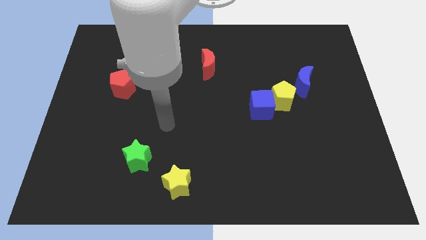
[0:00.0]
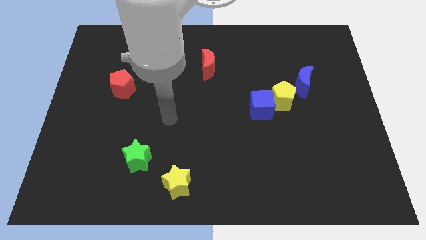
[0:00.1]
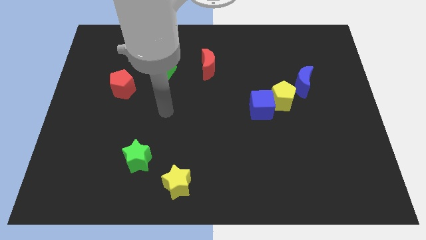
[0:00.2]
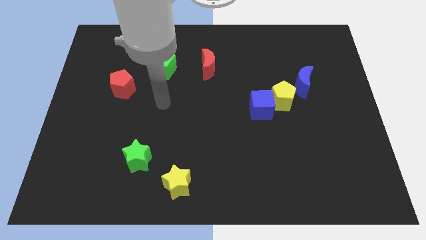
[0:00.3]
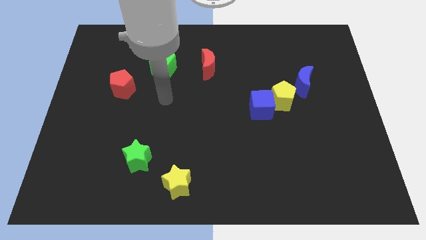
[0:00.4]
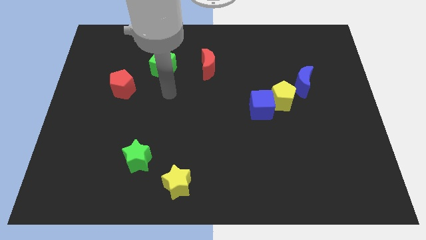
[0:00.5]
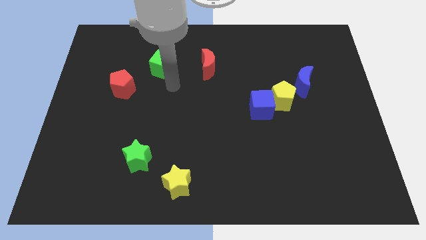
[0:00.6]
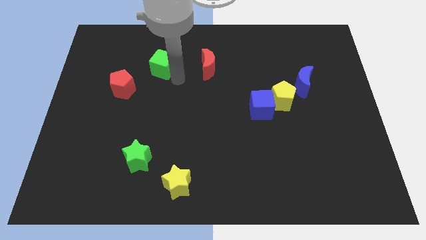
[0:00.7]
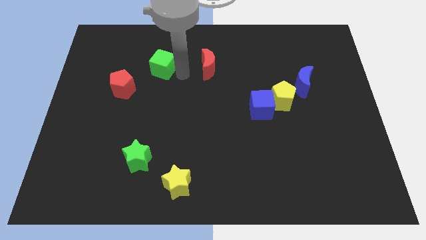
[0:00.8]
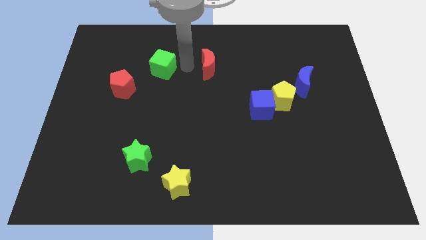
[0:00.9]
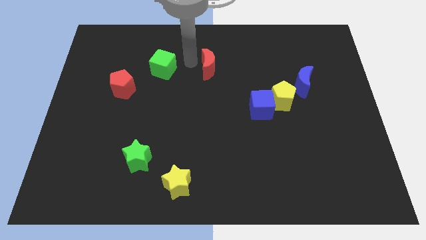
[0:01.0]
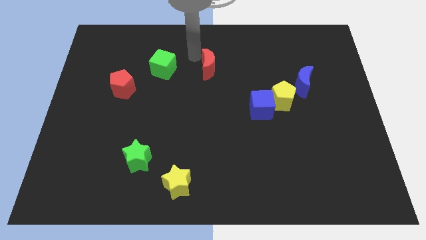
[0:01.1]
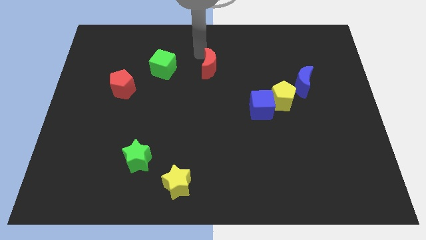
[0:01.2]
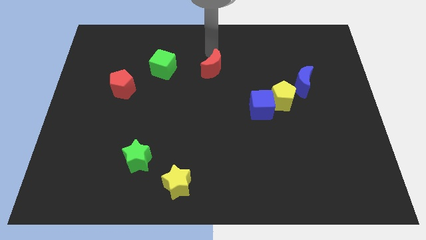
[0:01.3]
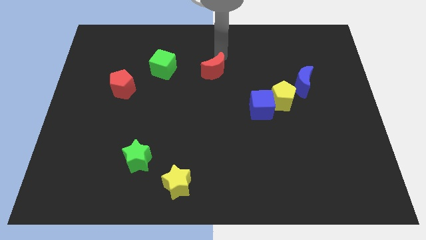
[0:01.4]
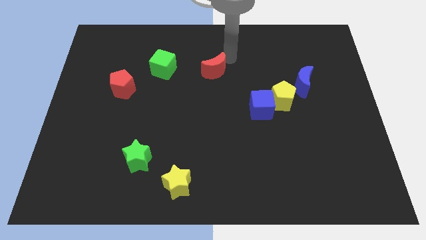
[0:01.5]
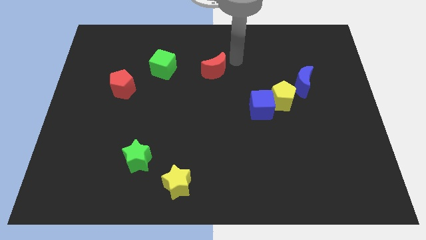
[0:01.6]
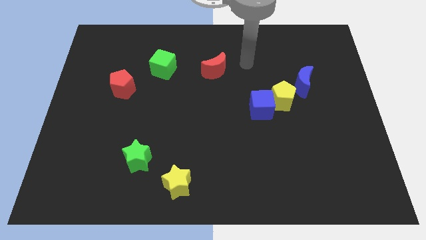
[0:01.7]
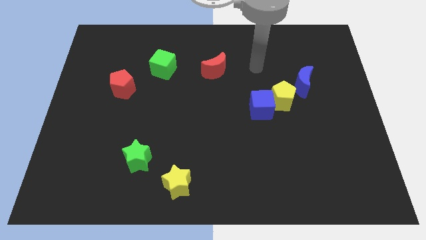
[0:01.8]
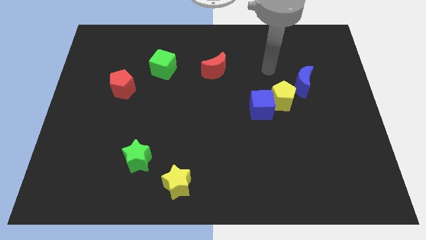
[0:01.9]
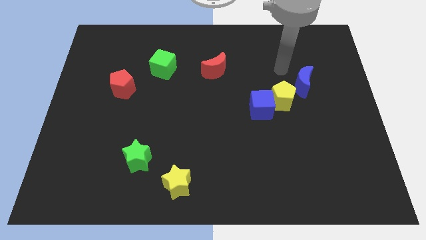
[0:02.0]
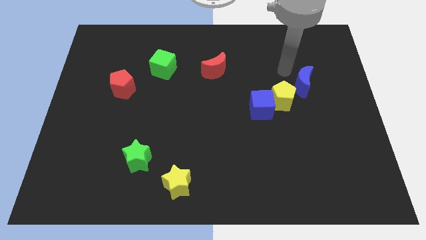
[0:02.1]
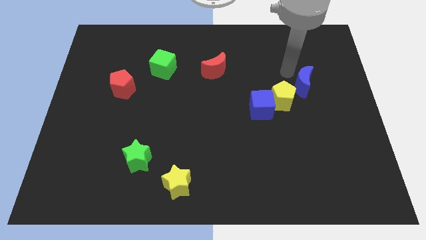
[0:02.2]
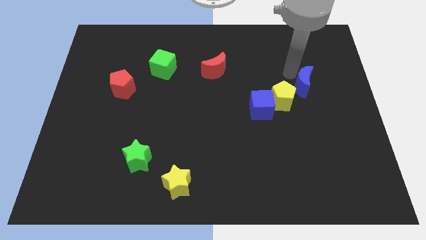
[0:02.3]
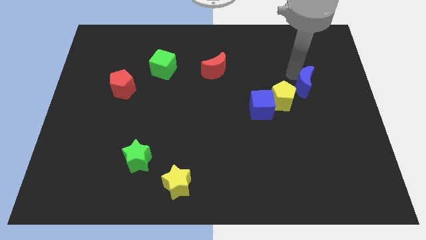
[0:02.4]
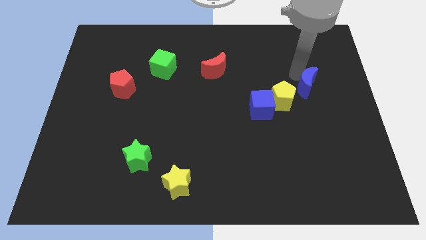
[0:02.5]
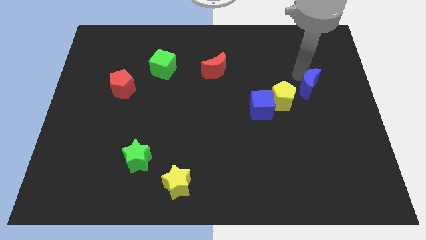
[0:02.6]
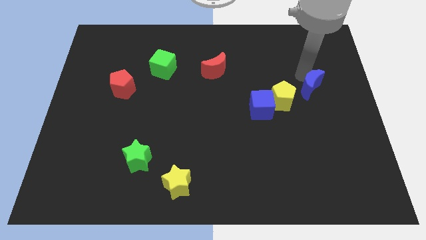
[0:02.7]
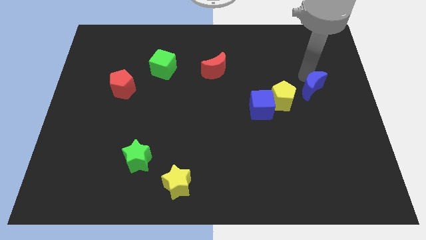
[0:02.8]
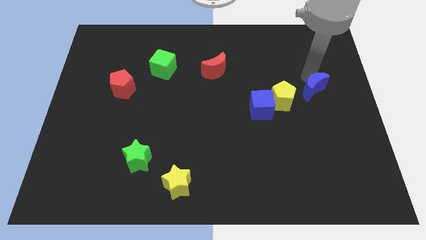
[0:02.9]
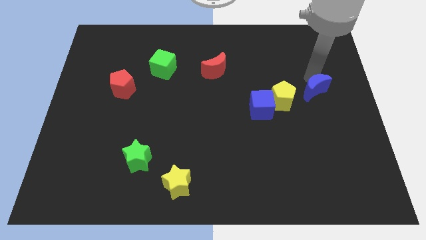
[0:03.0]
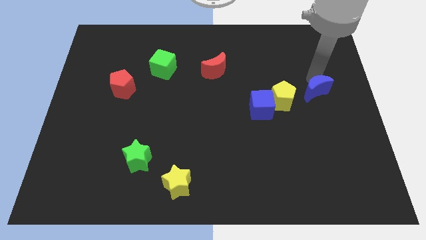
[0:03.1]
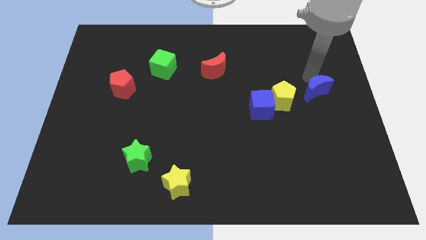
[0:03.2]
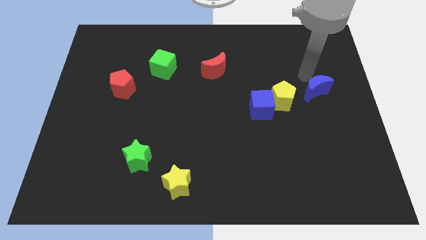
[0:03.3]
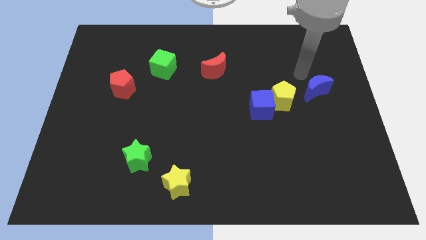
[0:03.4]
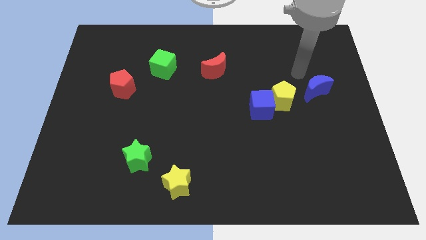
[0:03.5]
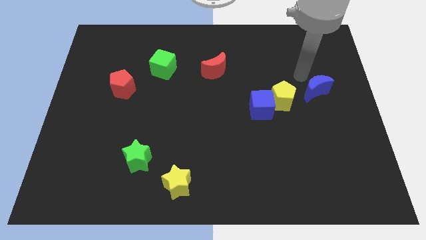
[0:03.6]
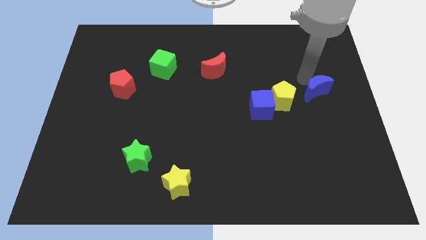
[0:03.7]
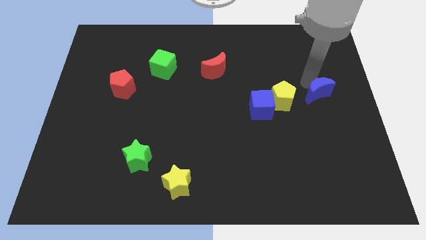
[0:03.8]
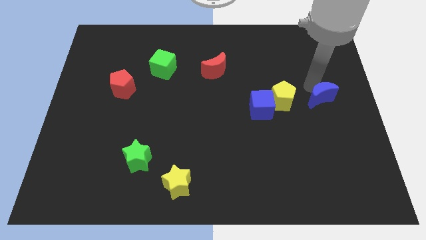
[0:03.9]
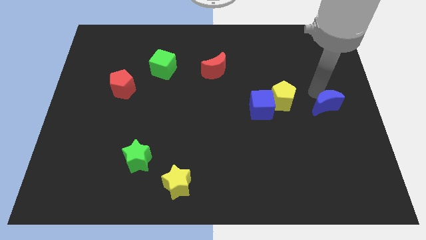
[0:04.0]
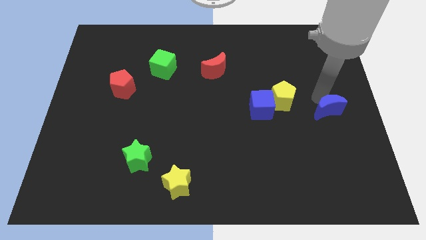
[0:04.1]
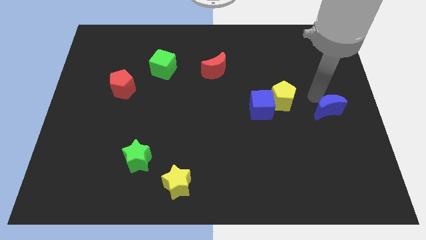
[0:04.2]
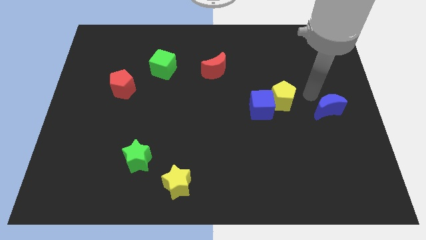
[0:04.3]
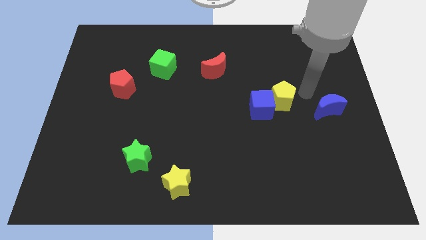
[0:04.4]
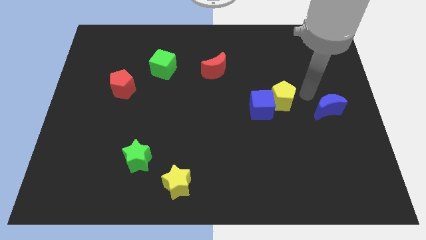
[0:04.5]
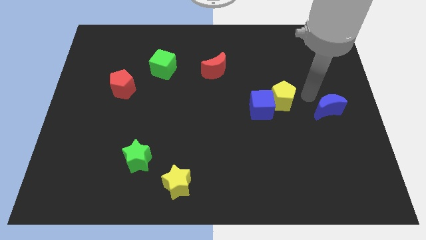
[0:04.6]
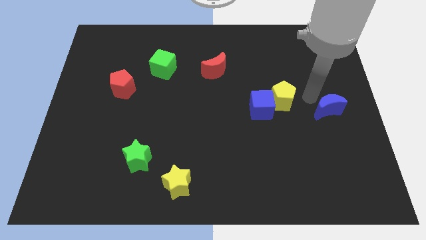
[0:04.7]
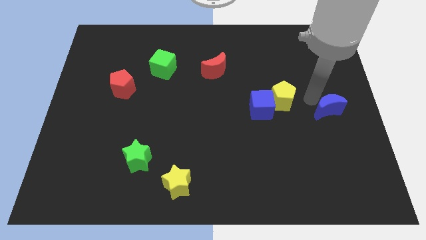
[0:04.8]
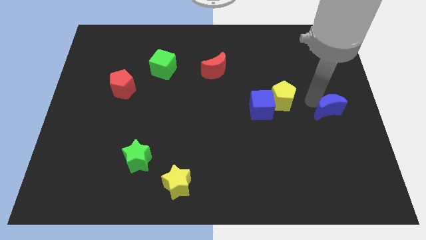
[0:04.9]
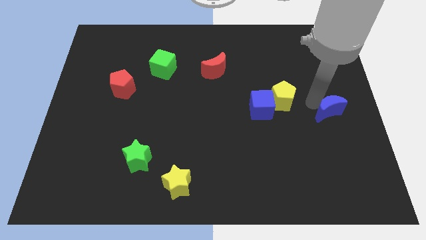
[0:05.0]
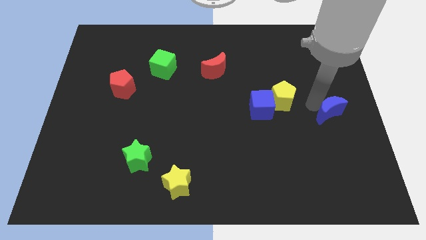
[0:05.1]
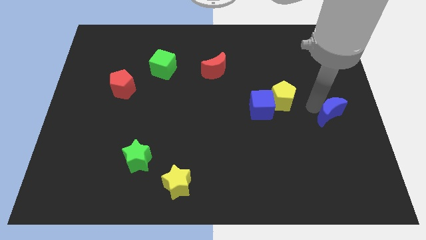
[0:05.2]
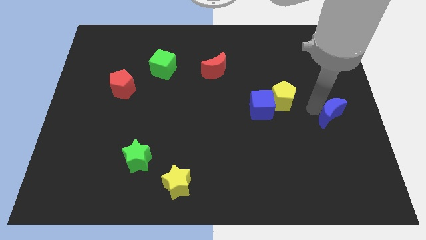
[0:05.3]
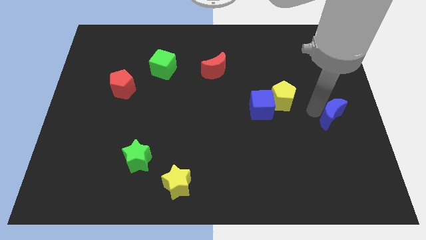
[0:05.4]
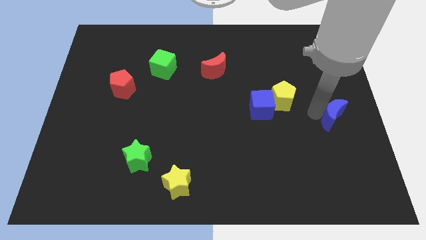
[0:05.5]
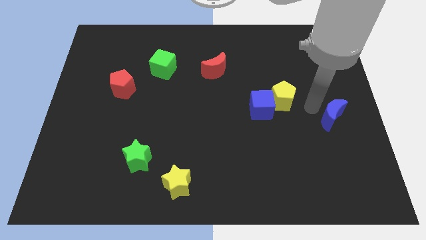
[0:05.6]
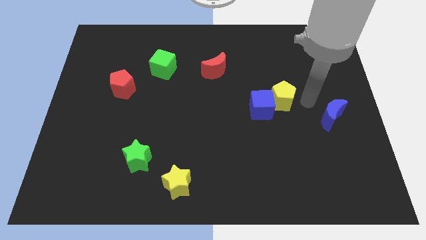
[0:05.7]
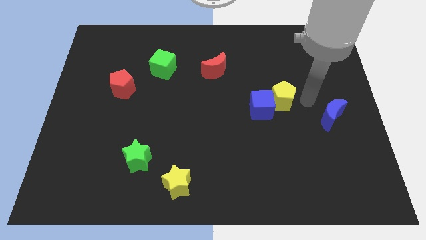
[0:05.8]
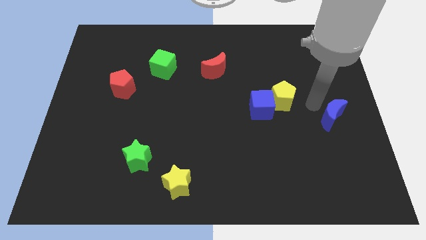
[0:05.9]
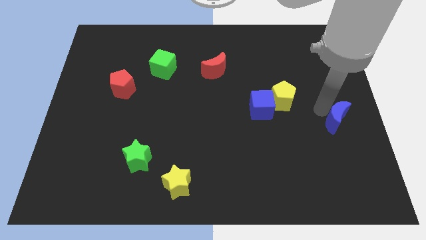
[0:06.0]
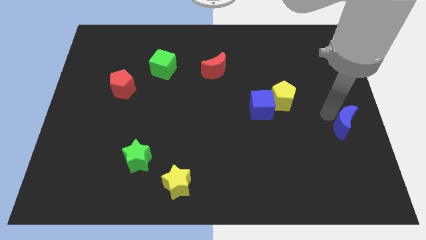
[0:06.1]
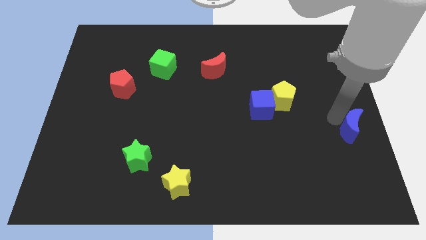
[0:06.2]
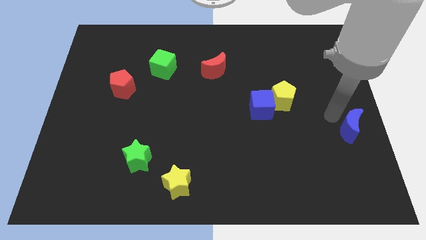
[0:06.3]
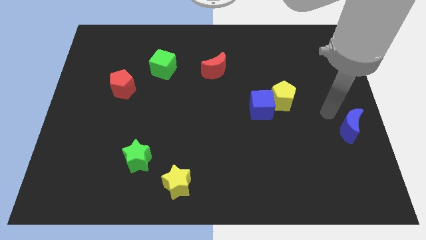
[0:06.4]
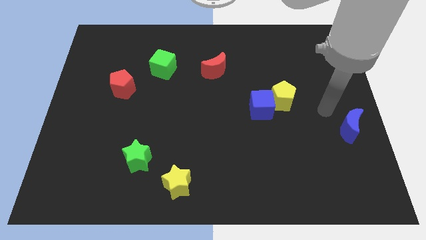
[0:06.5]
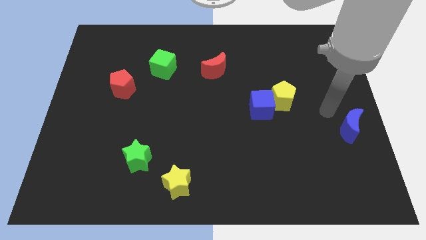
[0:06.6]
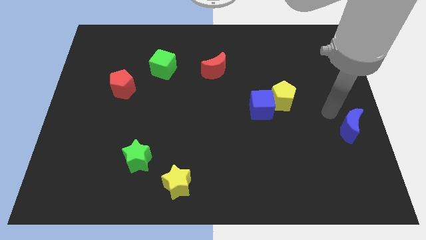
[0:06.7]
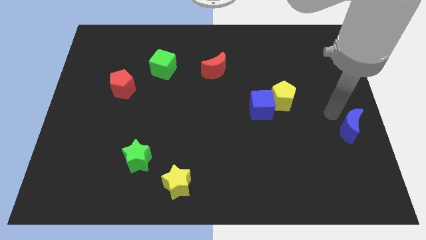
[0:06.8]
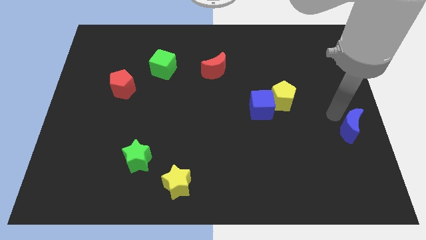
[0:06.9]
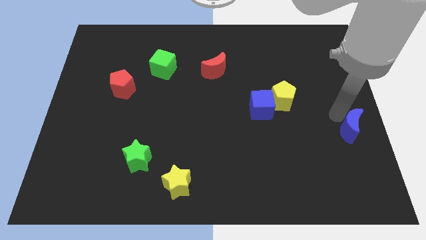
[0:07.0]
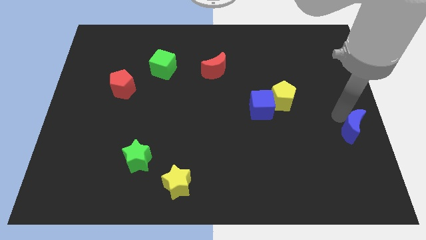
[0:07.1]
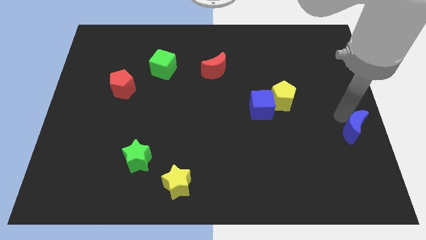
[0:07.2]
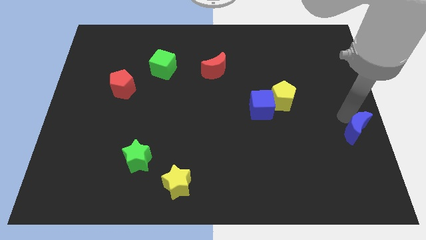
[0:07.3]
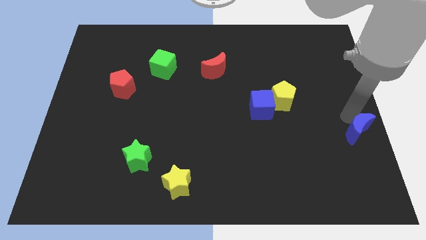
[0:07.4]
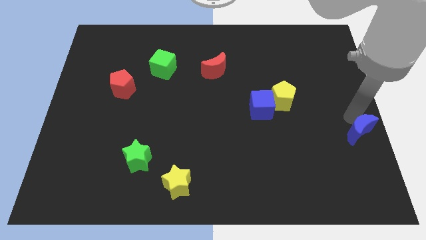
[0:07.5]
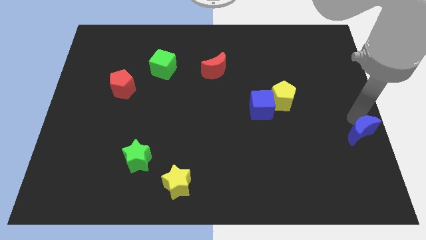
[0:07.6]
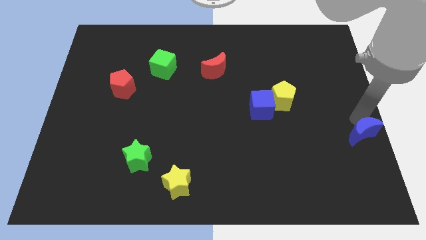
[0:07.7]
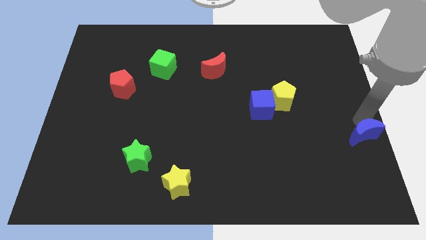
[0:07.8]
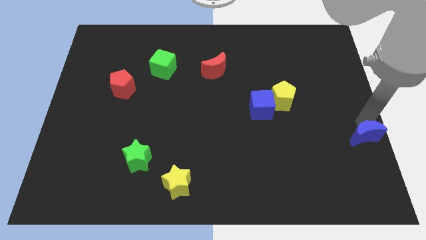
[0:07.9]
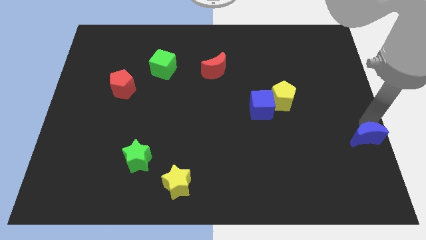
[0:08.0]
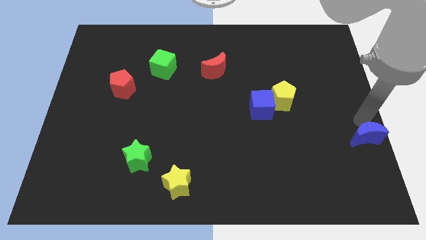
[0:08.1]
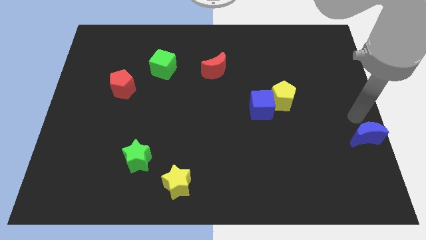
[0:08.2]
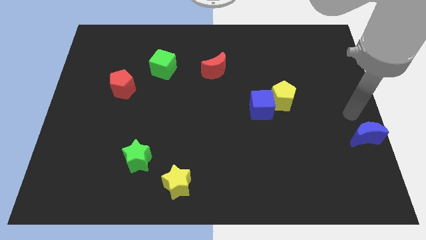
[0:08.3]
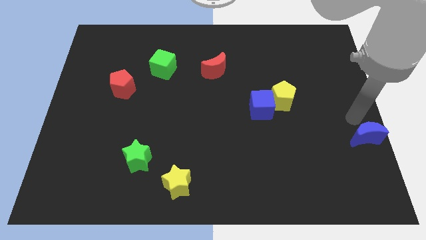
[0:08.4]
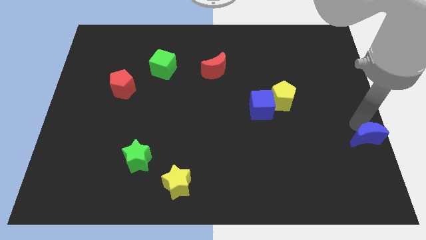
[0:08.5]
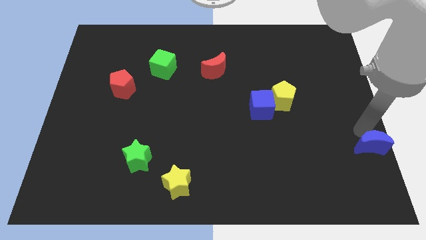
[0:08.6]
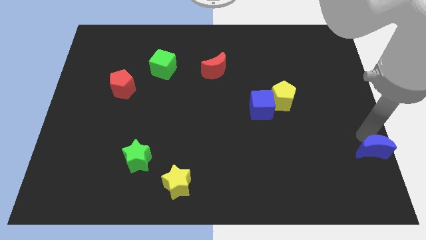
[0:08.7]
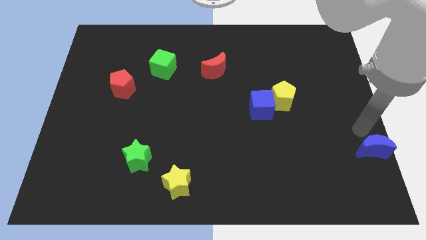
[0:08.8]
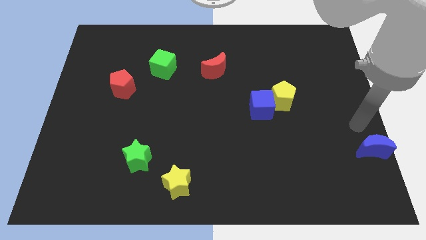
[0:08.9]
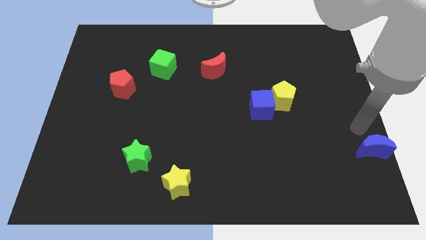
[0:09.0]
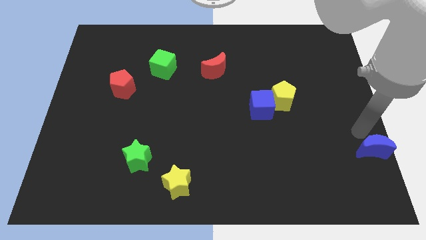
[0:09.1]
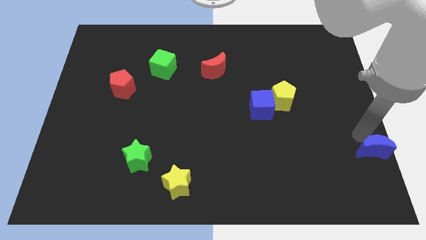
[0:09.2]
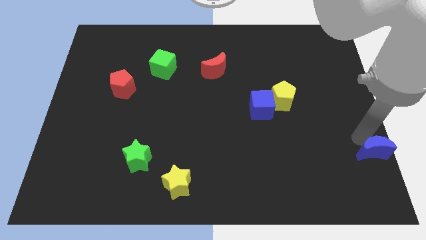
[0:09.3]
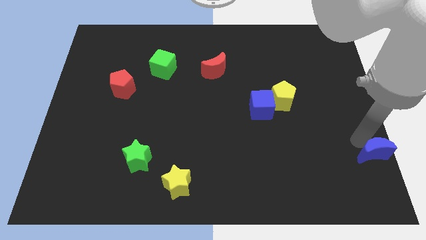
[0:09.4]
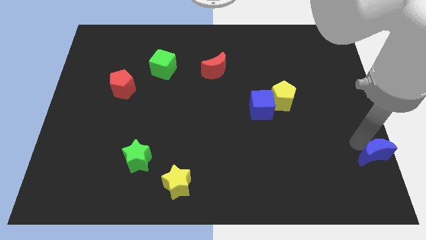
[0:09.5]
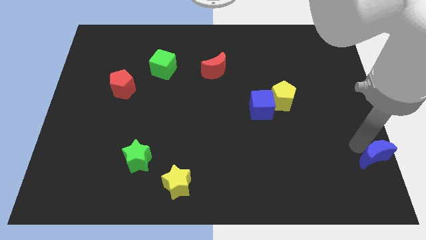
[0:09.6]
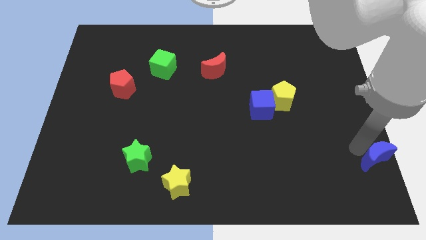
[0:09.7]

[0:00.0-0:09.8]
push the blue moon to the lower right corner
